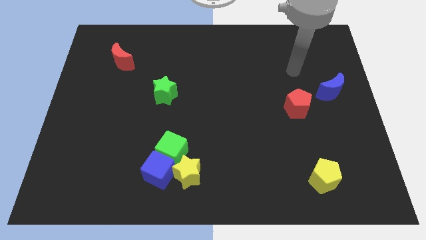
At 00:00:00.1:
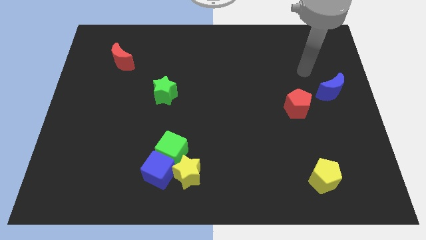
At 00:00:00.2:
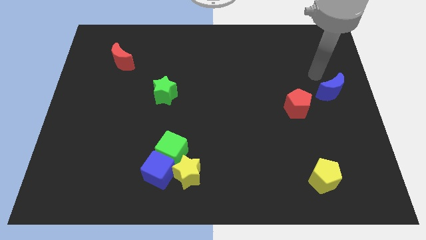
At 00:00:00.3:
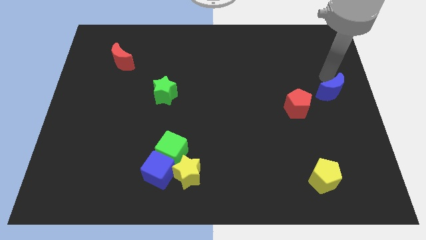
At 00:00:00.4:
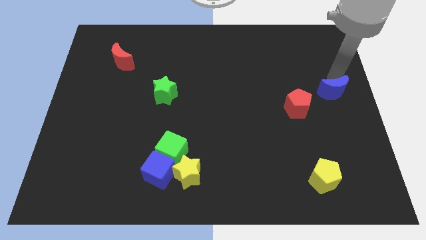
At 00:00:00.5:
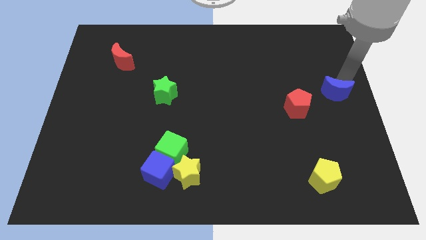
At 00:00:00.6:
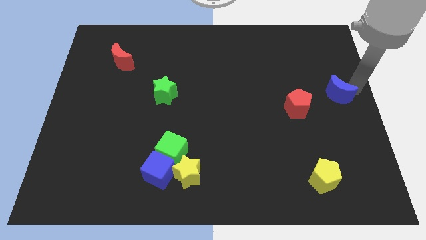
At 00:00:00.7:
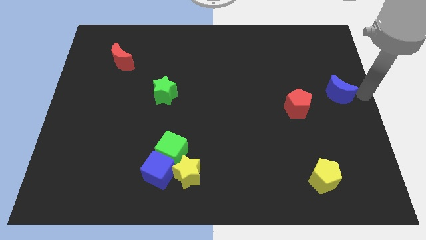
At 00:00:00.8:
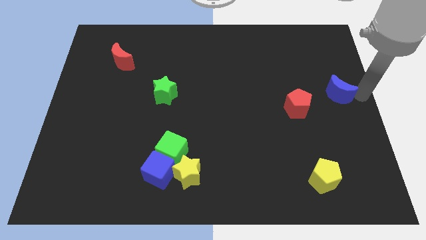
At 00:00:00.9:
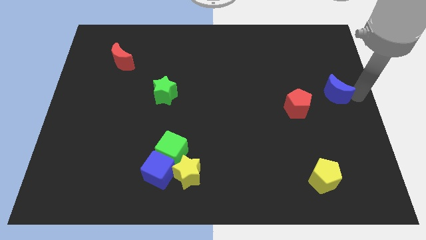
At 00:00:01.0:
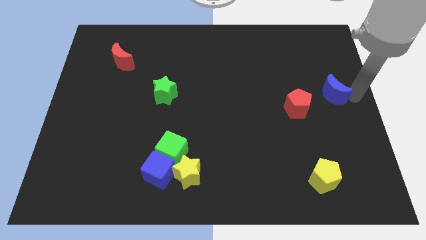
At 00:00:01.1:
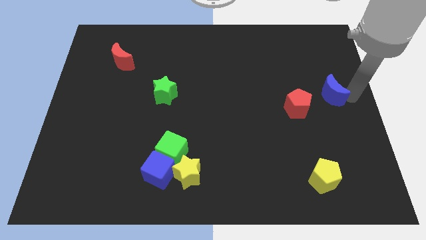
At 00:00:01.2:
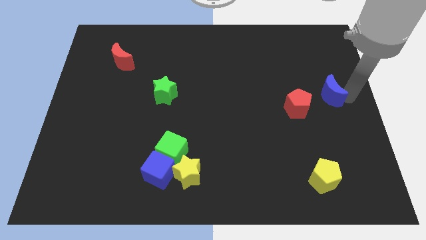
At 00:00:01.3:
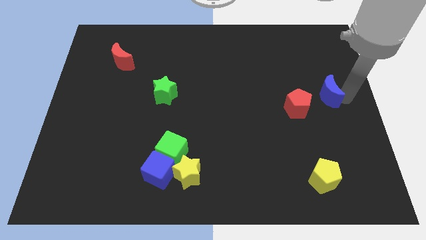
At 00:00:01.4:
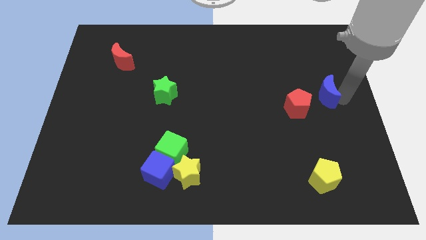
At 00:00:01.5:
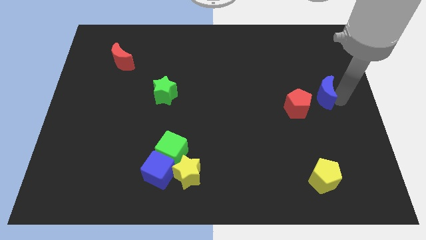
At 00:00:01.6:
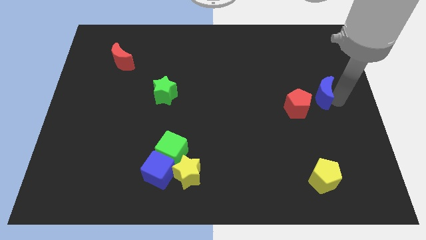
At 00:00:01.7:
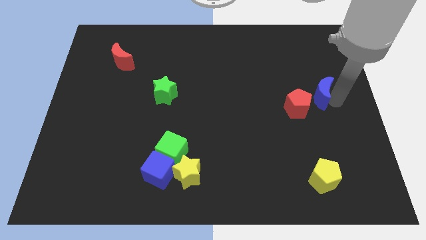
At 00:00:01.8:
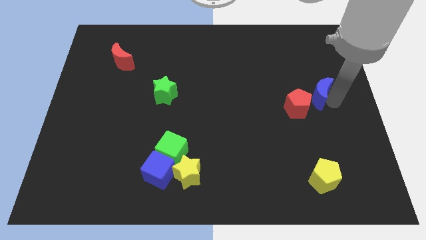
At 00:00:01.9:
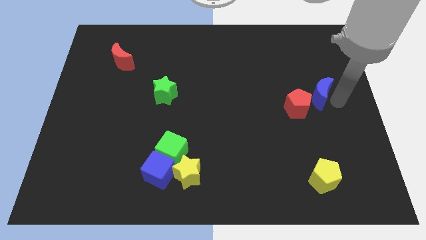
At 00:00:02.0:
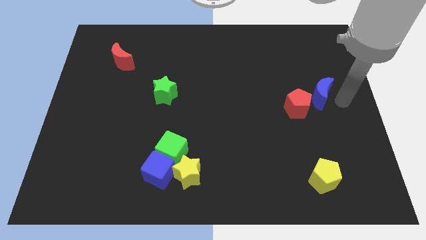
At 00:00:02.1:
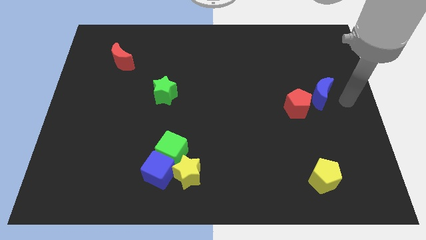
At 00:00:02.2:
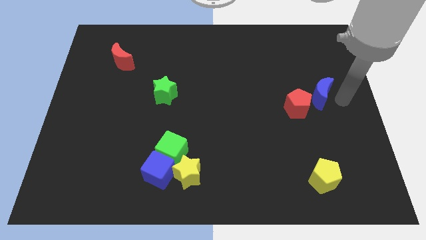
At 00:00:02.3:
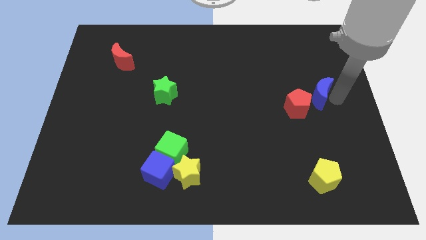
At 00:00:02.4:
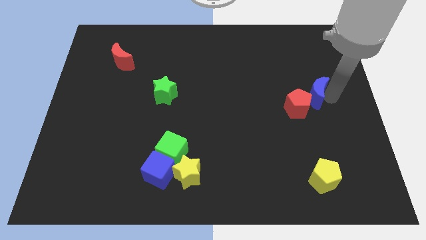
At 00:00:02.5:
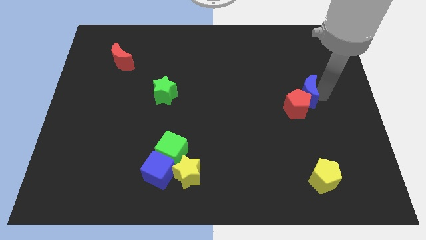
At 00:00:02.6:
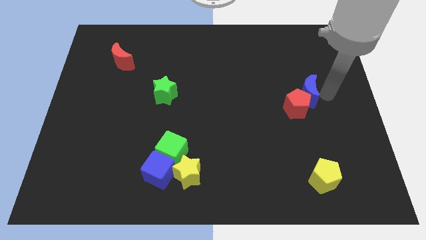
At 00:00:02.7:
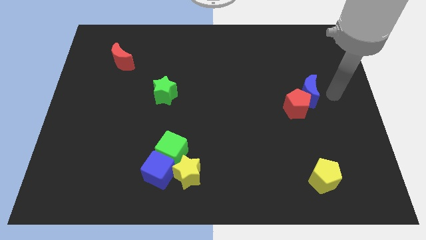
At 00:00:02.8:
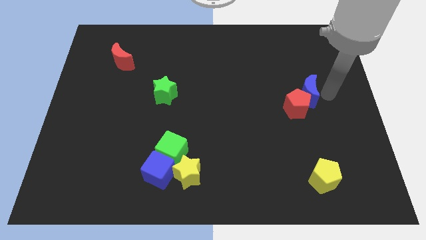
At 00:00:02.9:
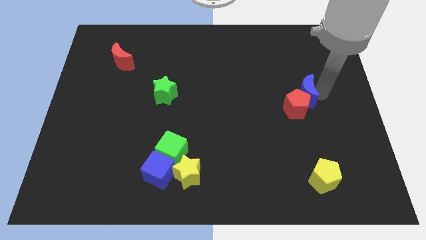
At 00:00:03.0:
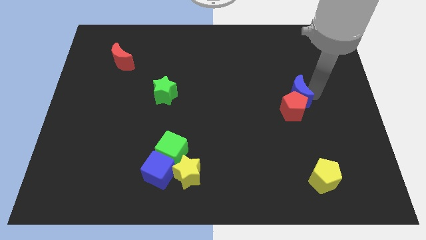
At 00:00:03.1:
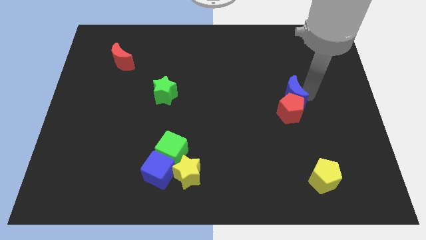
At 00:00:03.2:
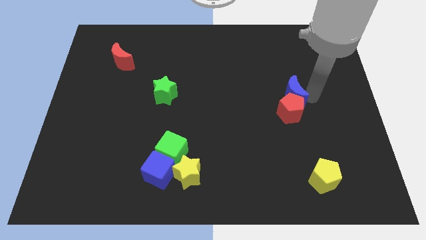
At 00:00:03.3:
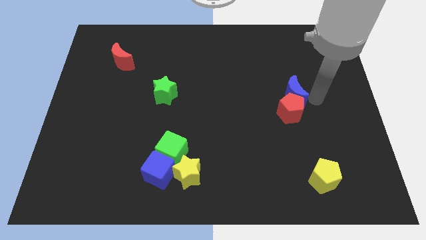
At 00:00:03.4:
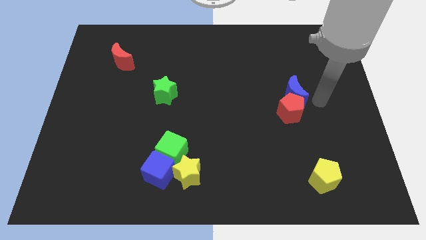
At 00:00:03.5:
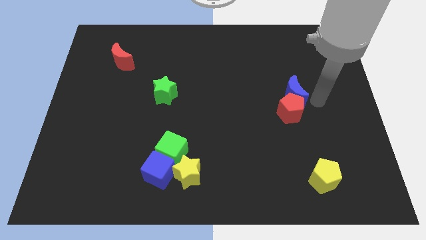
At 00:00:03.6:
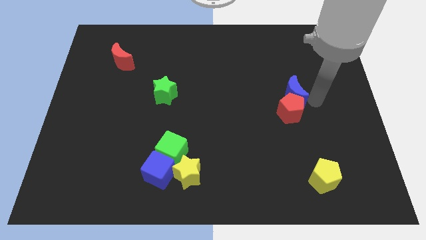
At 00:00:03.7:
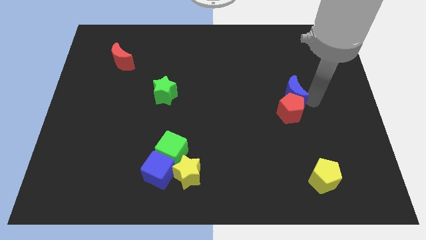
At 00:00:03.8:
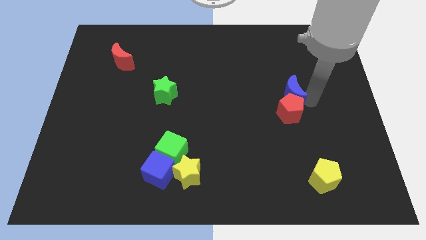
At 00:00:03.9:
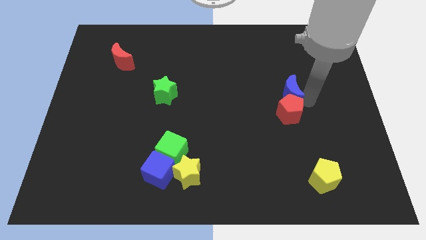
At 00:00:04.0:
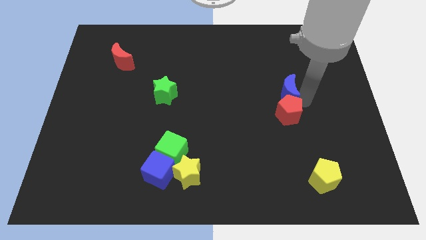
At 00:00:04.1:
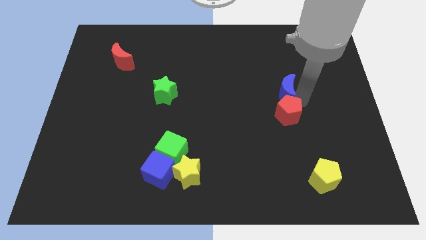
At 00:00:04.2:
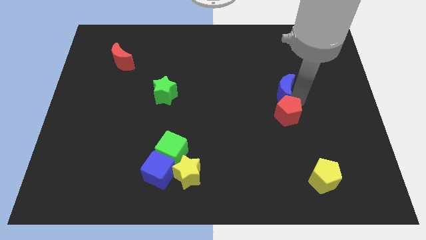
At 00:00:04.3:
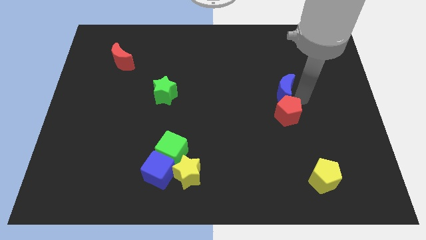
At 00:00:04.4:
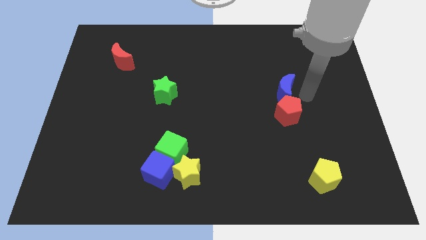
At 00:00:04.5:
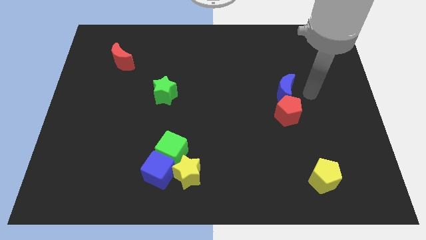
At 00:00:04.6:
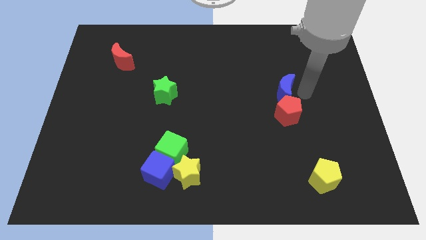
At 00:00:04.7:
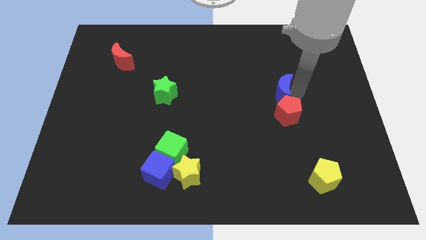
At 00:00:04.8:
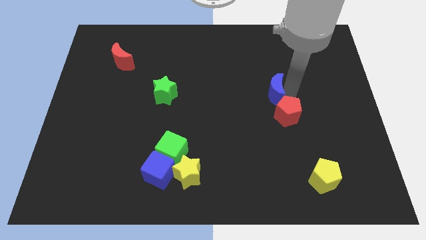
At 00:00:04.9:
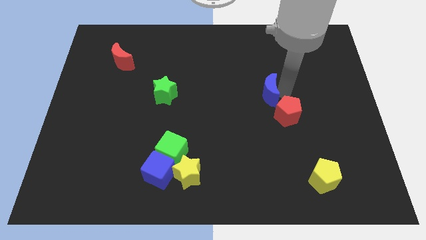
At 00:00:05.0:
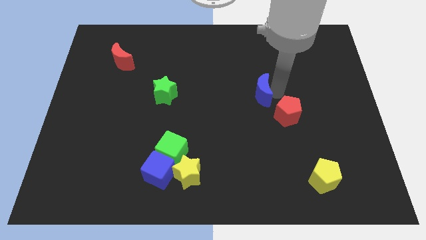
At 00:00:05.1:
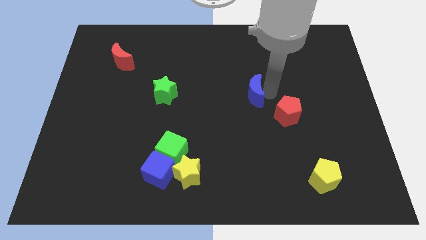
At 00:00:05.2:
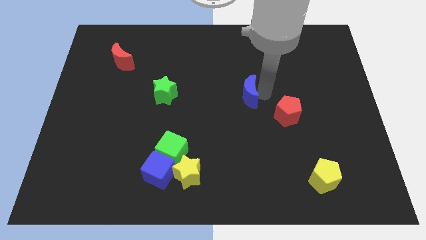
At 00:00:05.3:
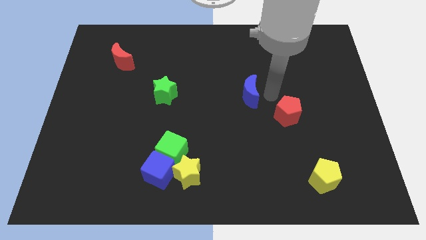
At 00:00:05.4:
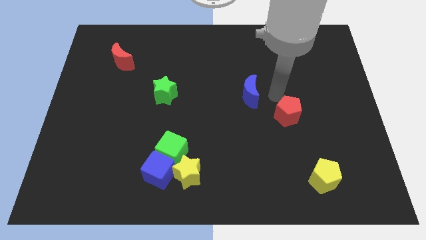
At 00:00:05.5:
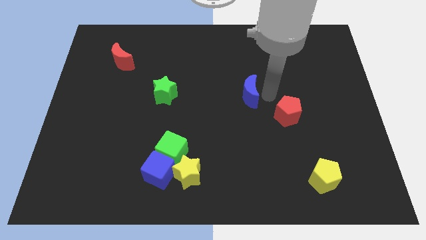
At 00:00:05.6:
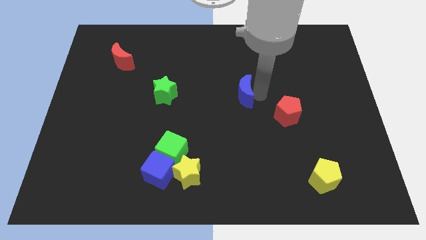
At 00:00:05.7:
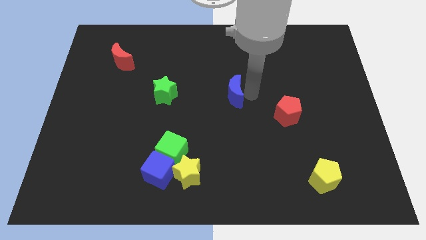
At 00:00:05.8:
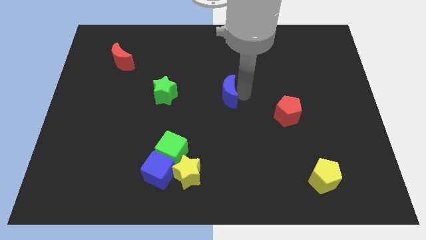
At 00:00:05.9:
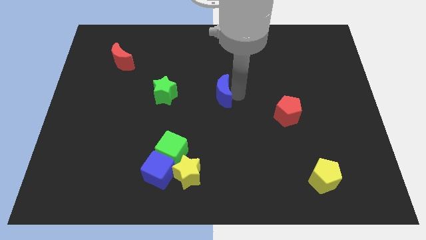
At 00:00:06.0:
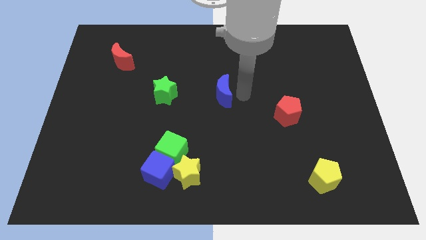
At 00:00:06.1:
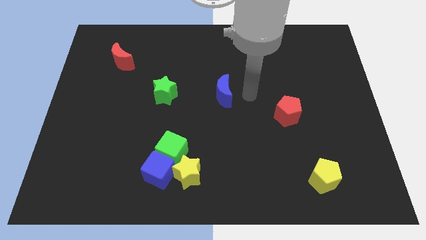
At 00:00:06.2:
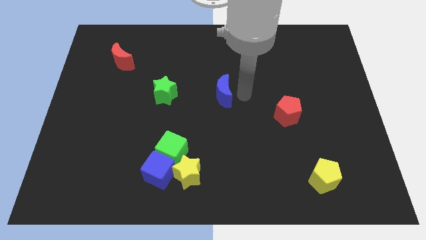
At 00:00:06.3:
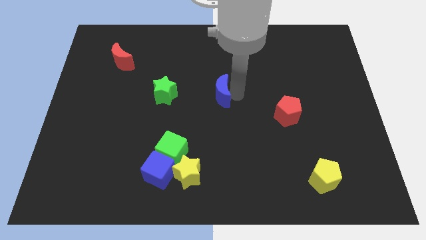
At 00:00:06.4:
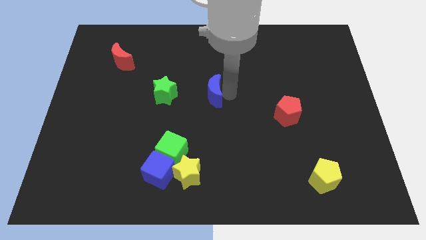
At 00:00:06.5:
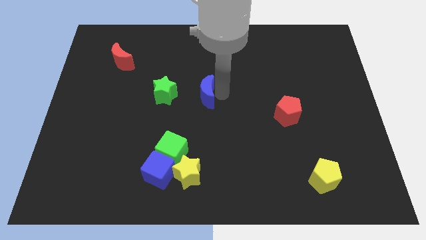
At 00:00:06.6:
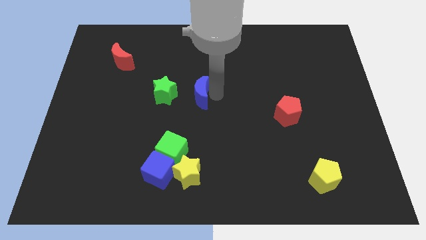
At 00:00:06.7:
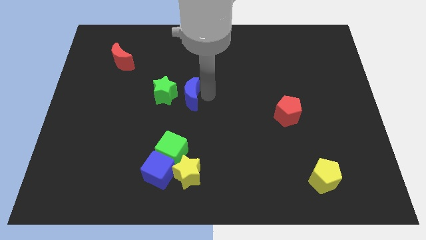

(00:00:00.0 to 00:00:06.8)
push the blue moon next to the green star

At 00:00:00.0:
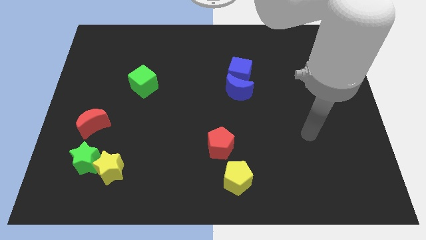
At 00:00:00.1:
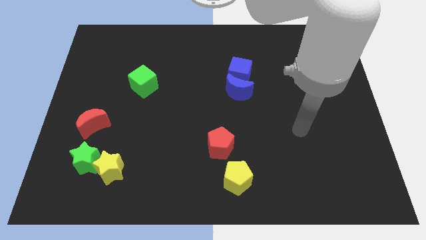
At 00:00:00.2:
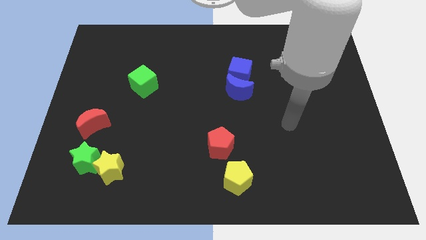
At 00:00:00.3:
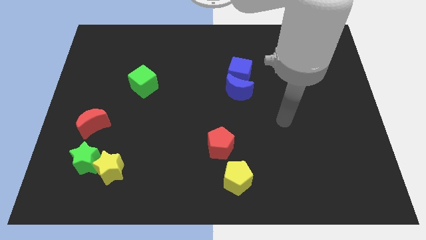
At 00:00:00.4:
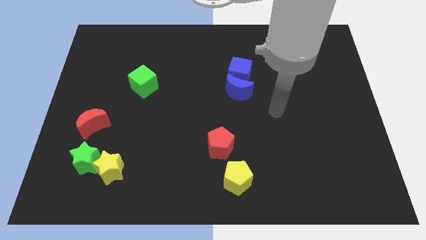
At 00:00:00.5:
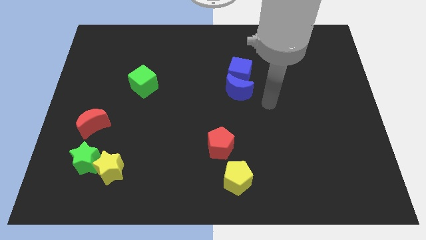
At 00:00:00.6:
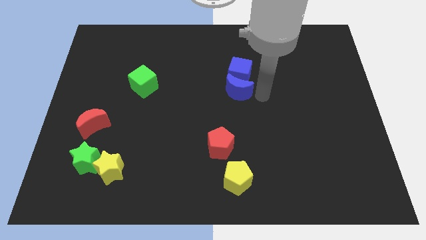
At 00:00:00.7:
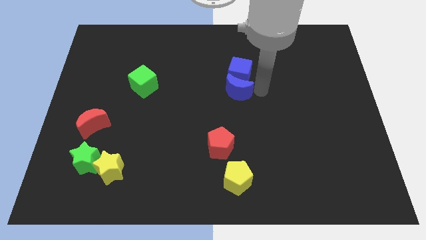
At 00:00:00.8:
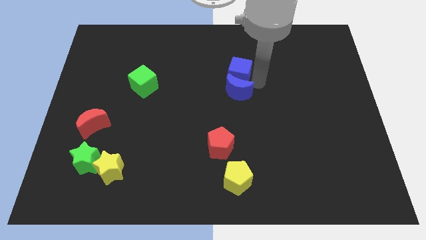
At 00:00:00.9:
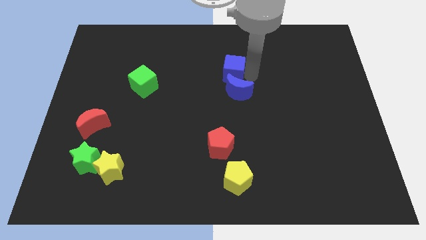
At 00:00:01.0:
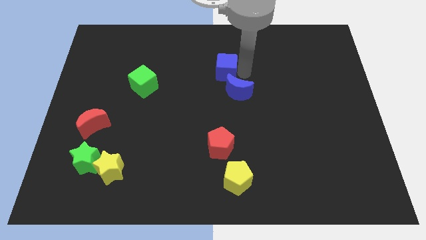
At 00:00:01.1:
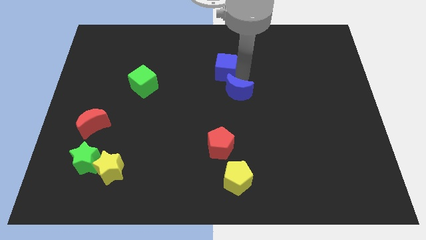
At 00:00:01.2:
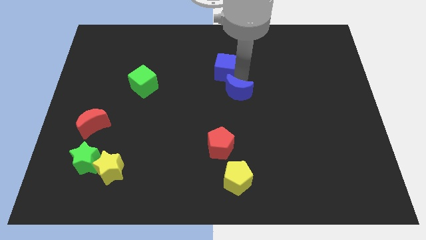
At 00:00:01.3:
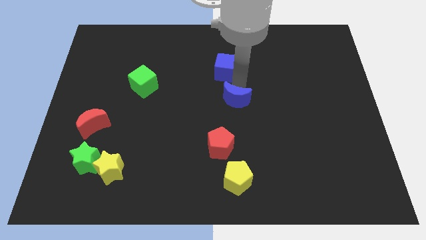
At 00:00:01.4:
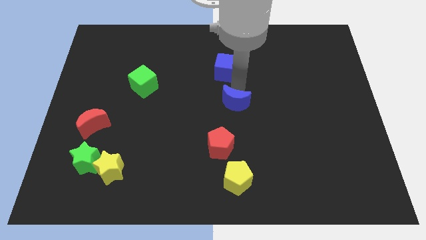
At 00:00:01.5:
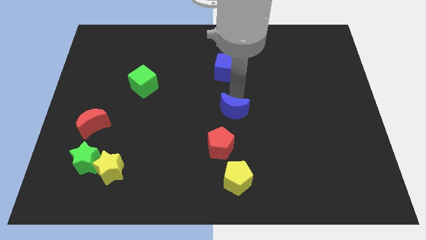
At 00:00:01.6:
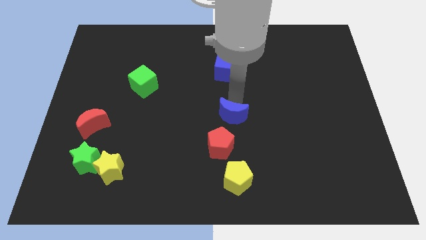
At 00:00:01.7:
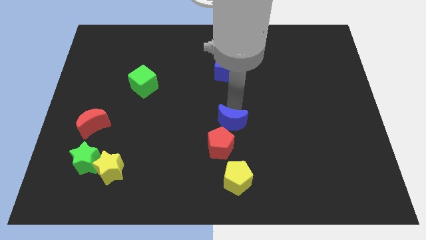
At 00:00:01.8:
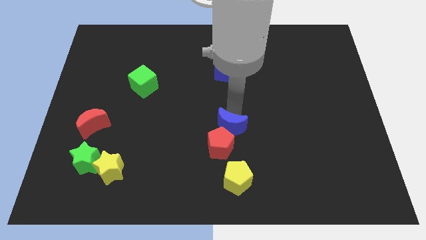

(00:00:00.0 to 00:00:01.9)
move the blue moon close to the red pentagon
